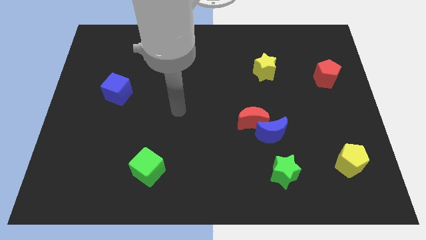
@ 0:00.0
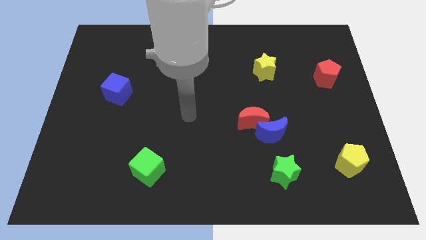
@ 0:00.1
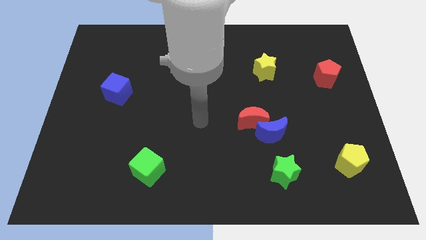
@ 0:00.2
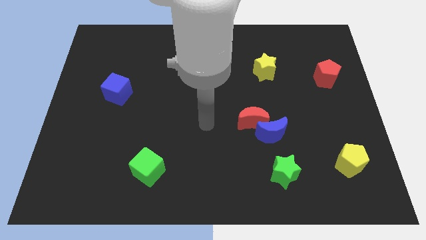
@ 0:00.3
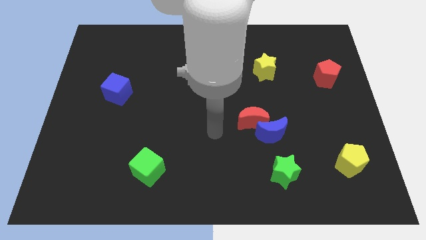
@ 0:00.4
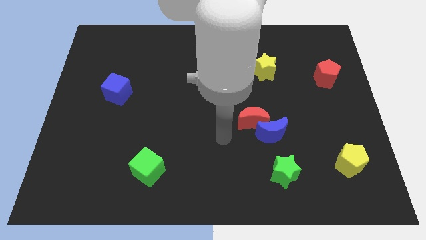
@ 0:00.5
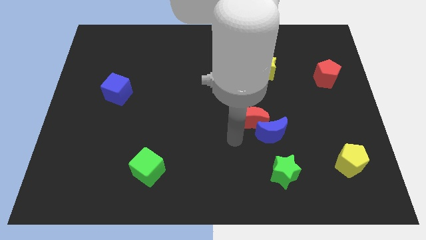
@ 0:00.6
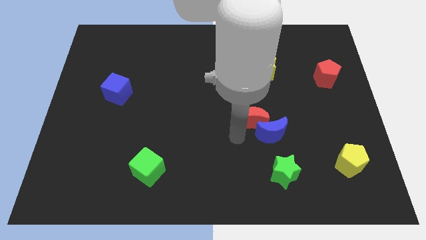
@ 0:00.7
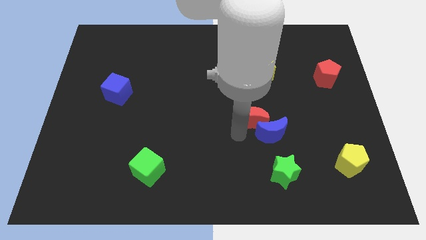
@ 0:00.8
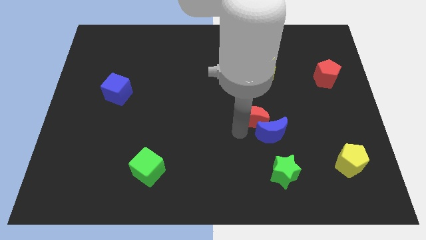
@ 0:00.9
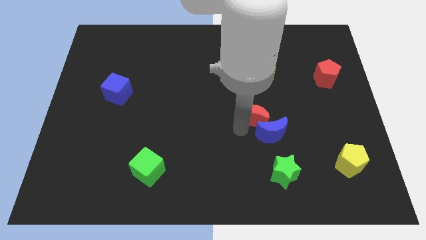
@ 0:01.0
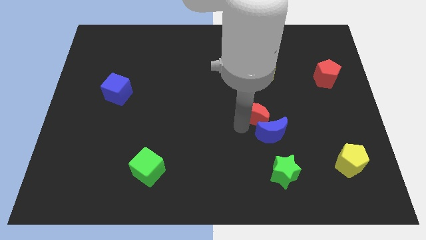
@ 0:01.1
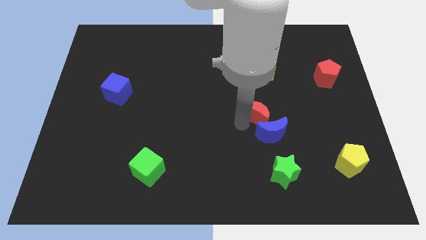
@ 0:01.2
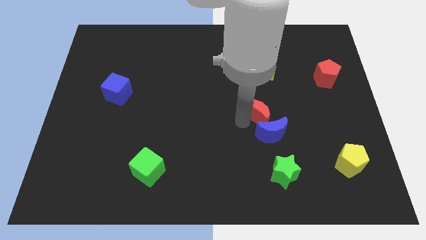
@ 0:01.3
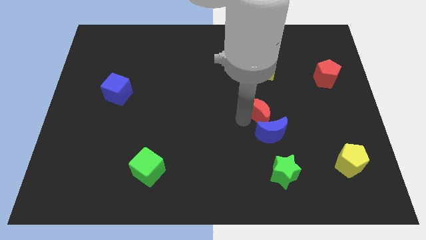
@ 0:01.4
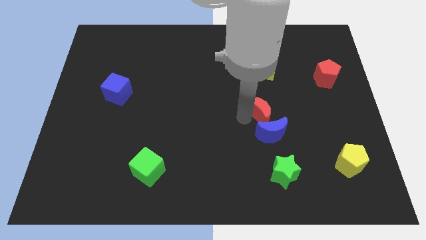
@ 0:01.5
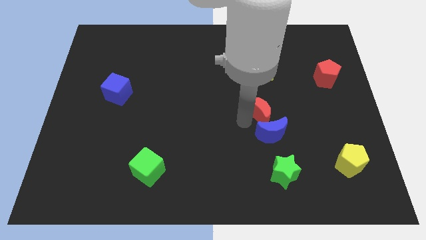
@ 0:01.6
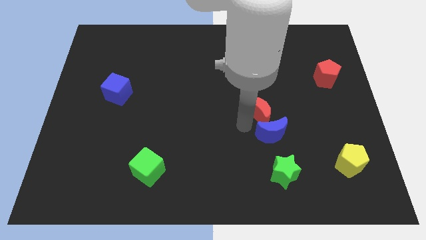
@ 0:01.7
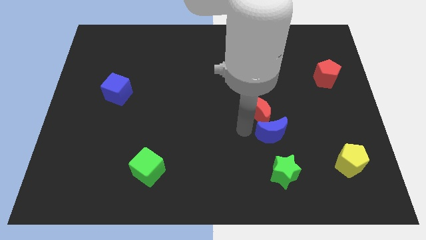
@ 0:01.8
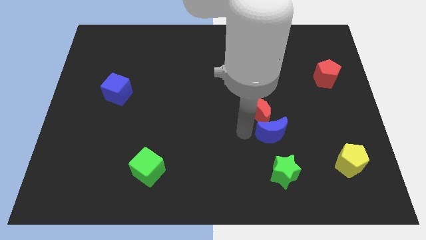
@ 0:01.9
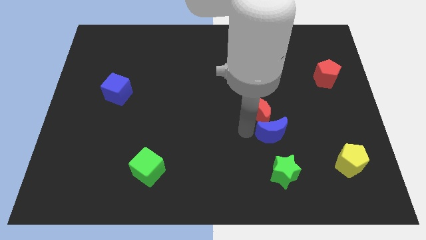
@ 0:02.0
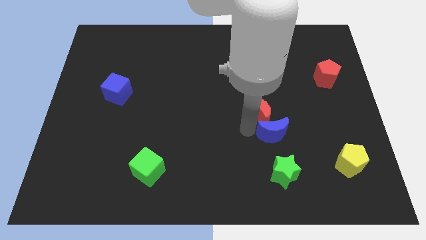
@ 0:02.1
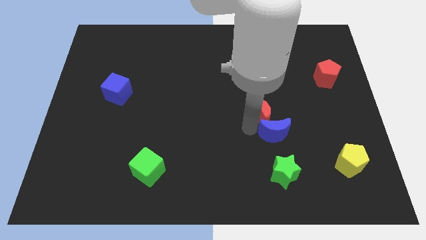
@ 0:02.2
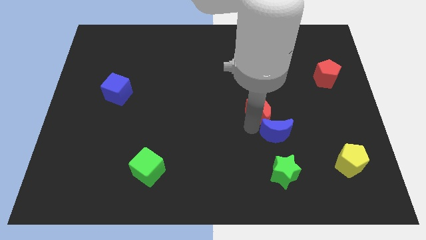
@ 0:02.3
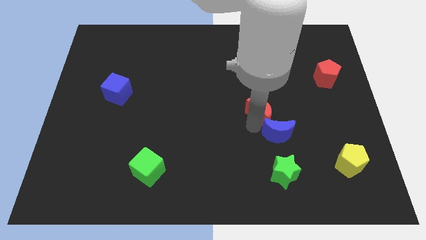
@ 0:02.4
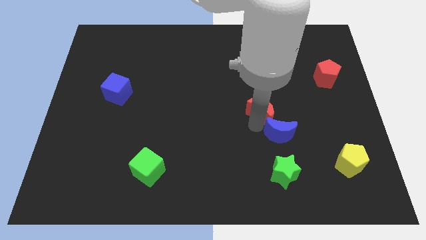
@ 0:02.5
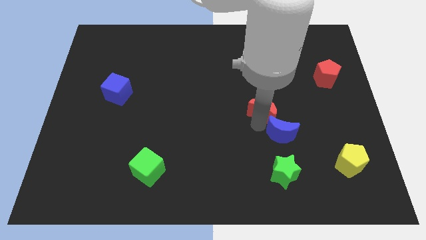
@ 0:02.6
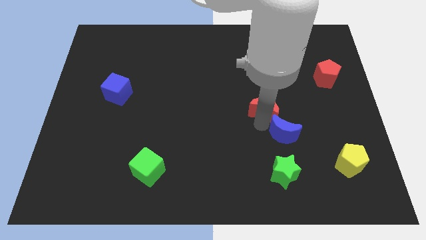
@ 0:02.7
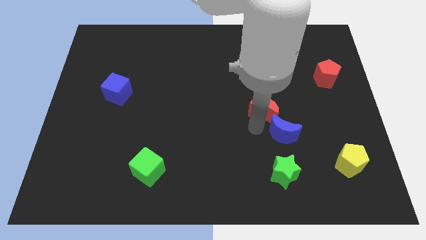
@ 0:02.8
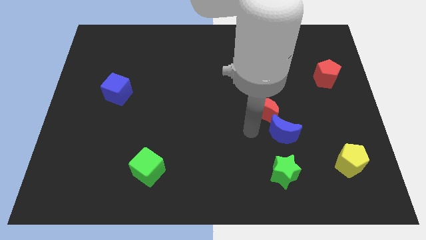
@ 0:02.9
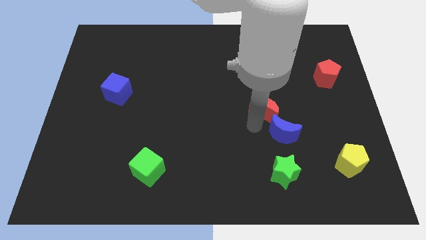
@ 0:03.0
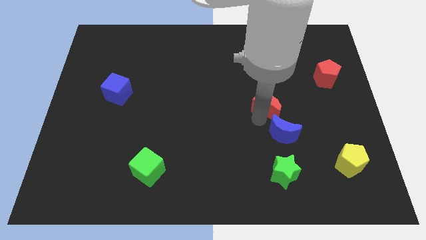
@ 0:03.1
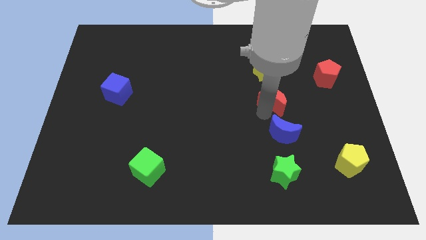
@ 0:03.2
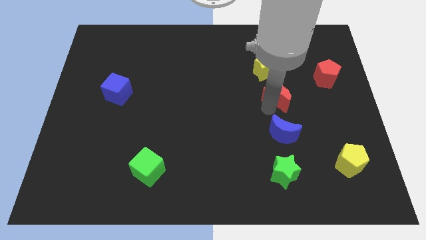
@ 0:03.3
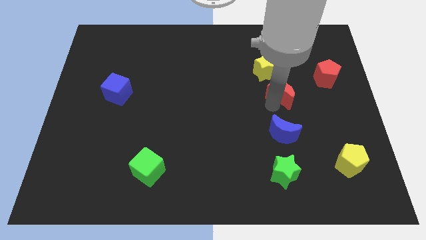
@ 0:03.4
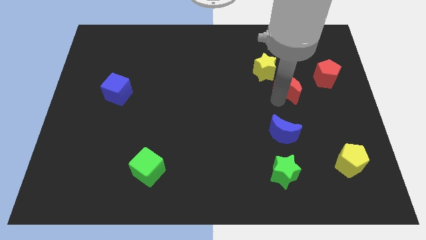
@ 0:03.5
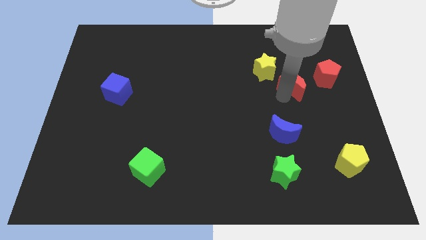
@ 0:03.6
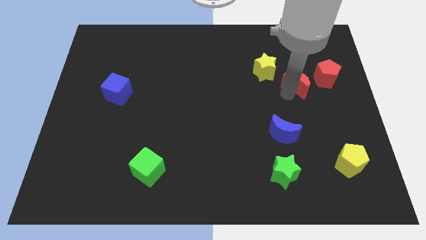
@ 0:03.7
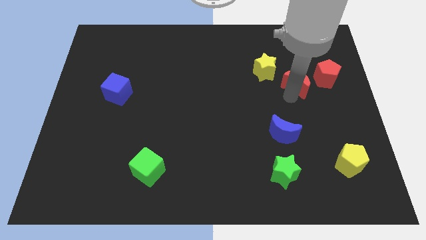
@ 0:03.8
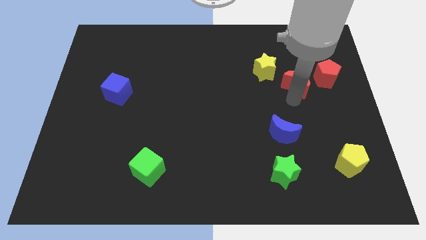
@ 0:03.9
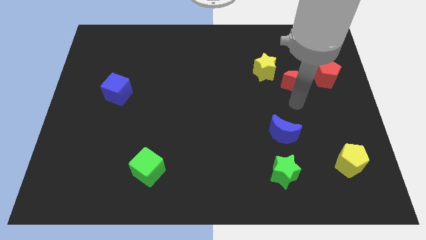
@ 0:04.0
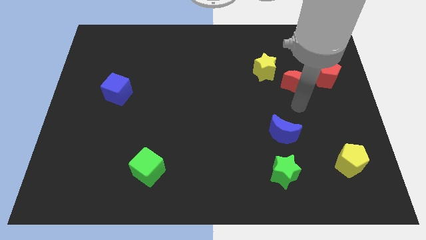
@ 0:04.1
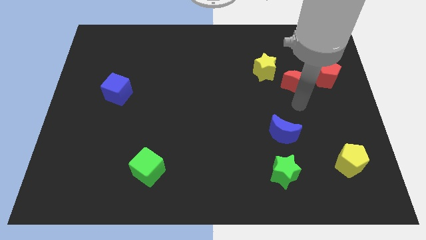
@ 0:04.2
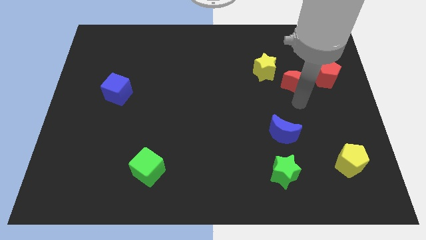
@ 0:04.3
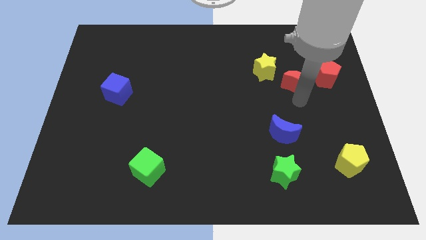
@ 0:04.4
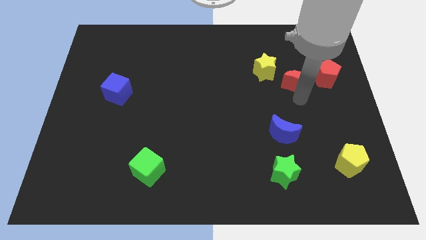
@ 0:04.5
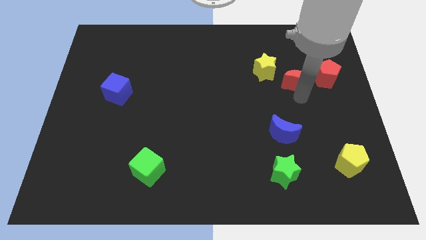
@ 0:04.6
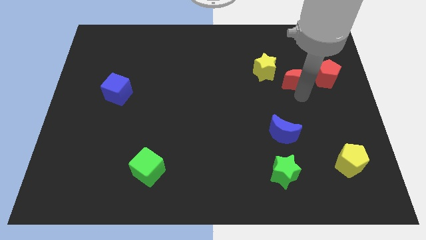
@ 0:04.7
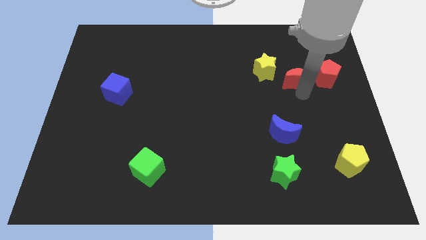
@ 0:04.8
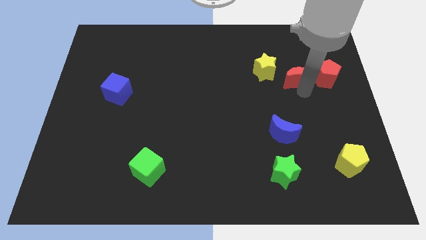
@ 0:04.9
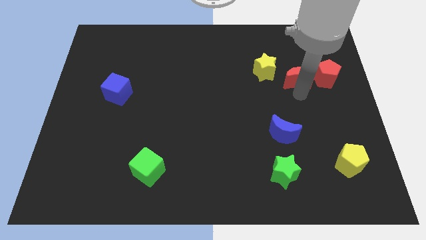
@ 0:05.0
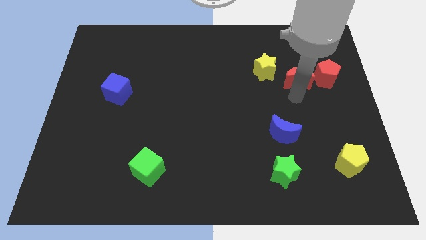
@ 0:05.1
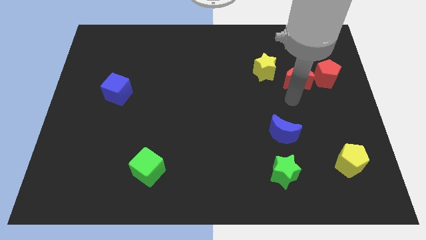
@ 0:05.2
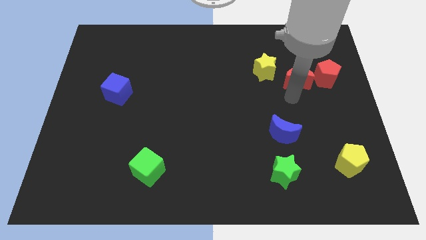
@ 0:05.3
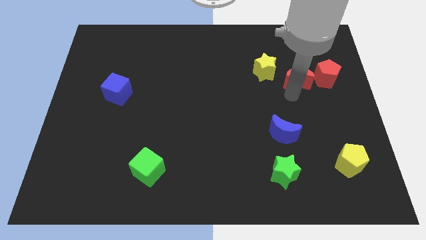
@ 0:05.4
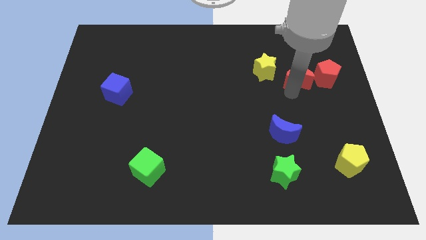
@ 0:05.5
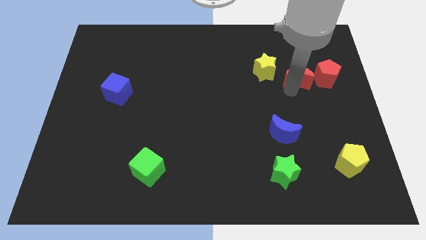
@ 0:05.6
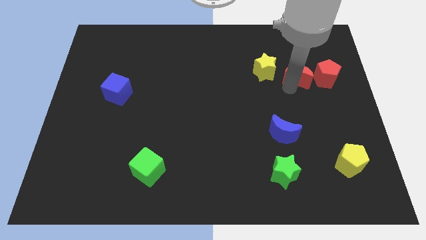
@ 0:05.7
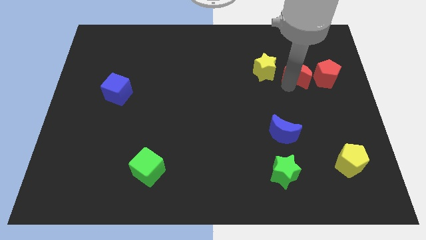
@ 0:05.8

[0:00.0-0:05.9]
move the red moon to the top left of the red pentagon

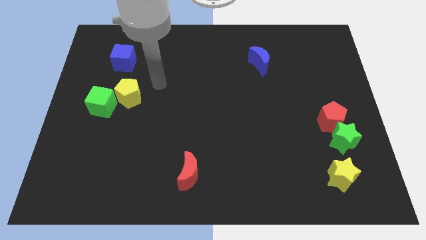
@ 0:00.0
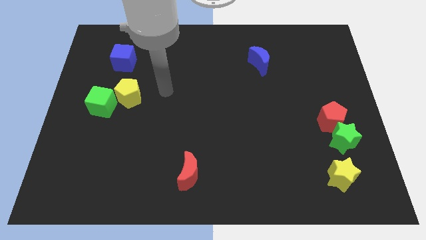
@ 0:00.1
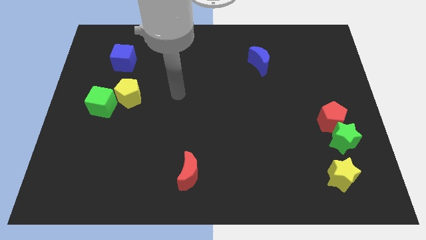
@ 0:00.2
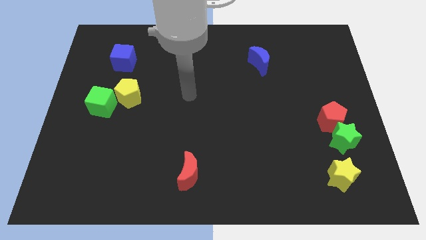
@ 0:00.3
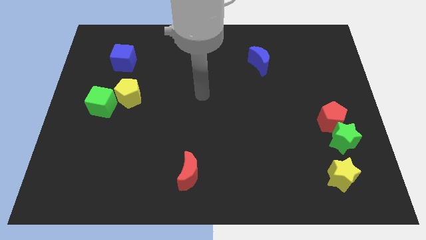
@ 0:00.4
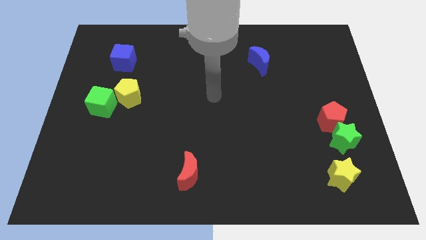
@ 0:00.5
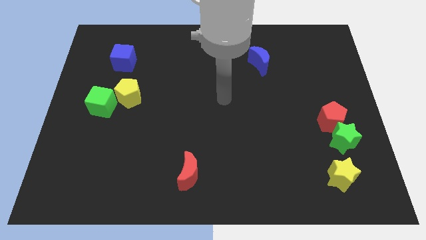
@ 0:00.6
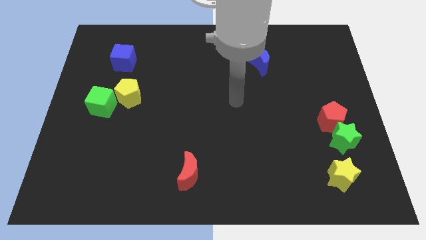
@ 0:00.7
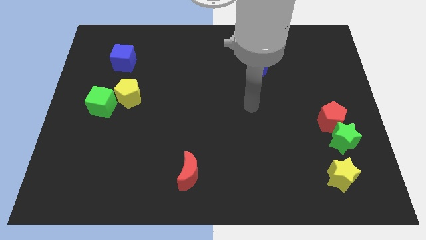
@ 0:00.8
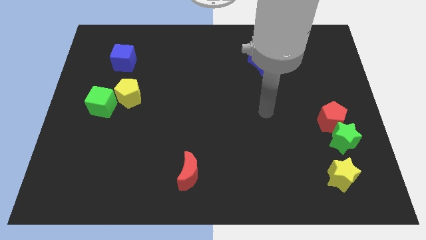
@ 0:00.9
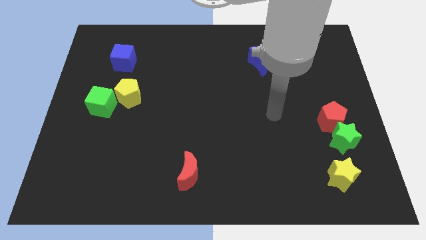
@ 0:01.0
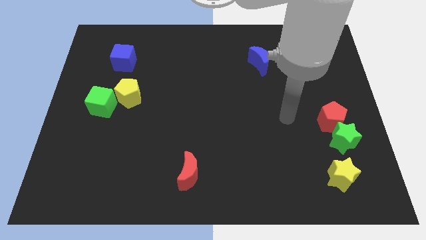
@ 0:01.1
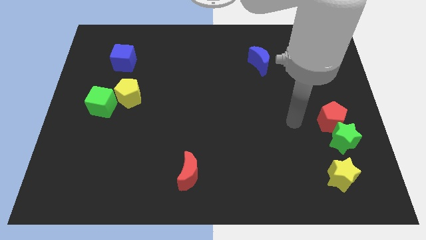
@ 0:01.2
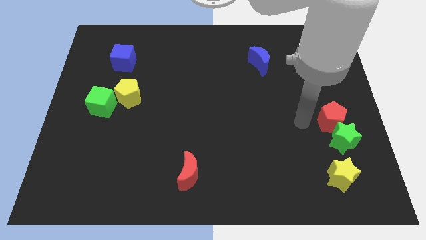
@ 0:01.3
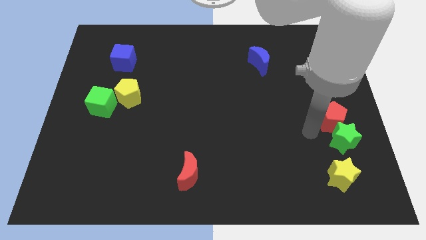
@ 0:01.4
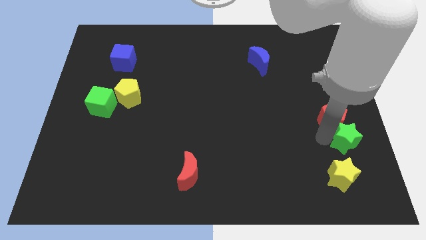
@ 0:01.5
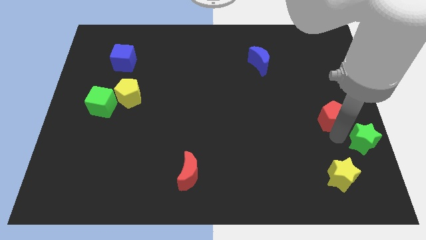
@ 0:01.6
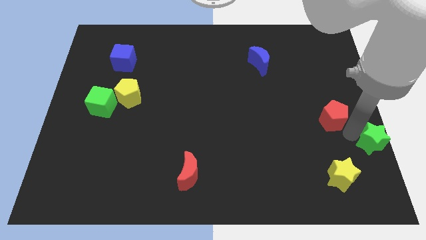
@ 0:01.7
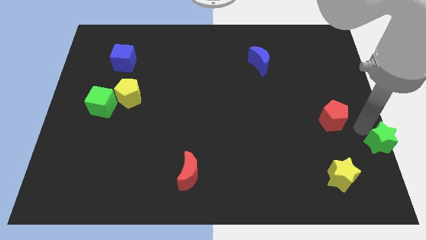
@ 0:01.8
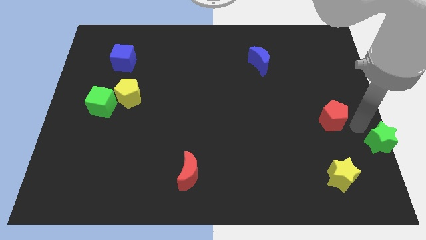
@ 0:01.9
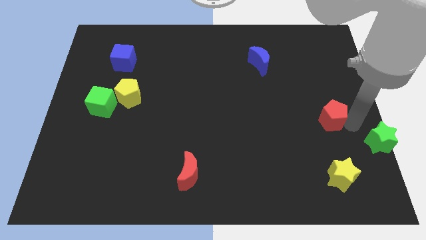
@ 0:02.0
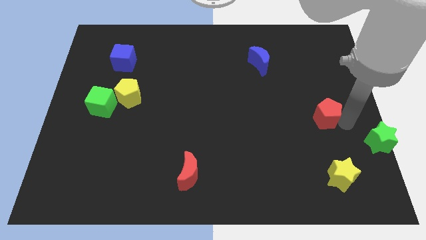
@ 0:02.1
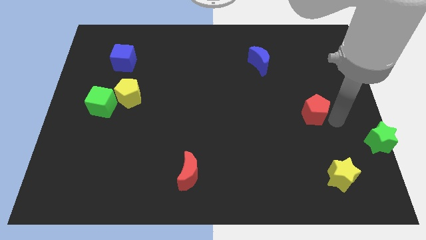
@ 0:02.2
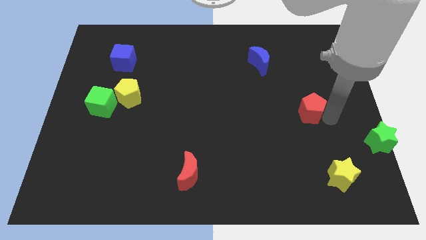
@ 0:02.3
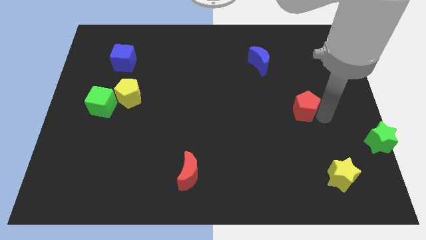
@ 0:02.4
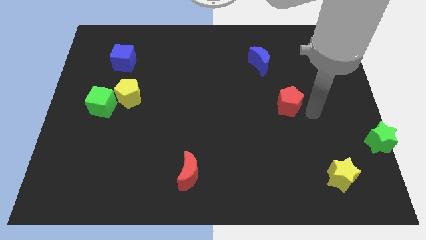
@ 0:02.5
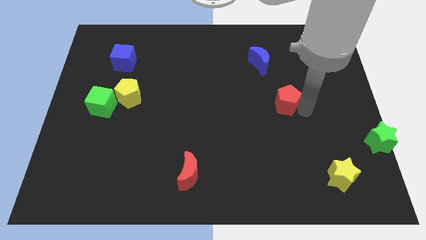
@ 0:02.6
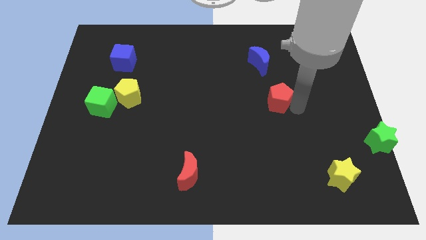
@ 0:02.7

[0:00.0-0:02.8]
push the red pentagon to the bottom side of the blue moon
